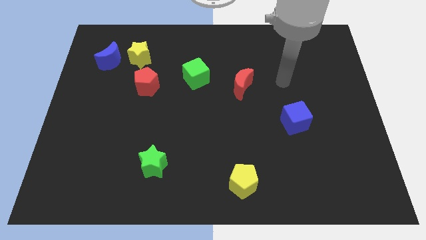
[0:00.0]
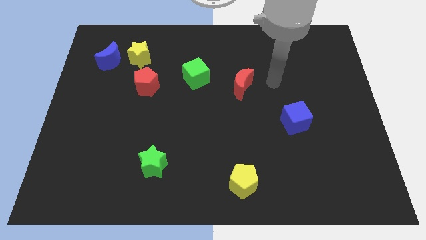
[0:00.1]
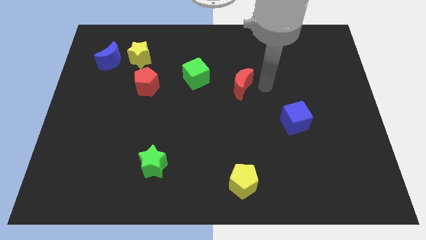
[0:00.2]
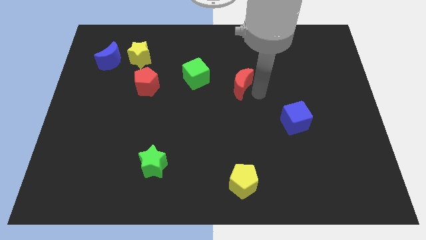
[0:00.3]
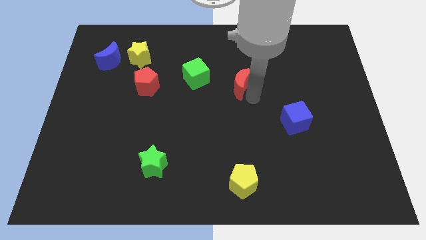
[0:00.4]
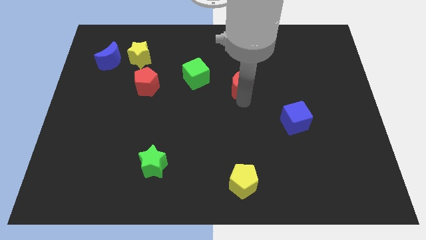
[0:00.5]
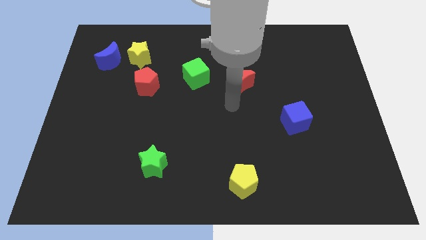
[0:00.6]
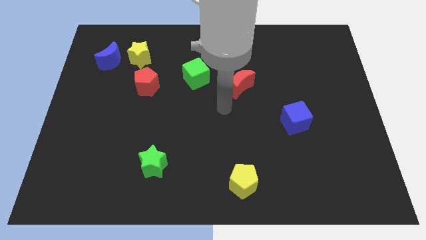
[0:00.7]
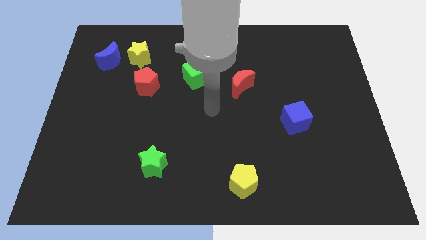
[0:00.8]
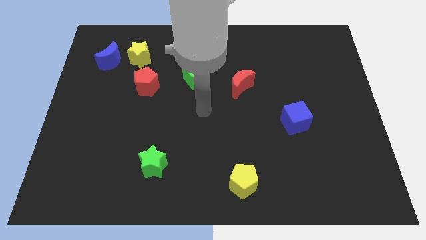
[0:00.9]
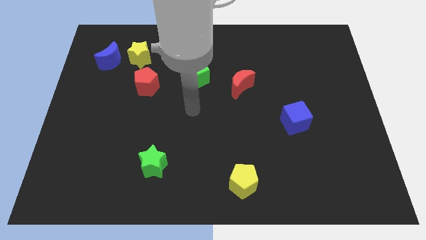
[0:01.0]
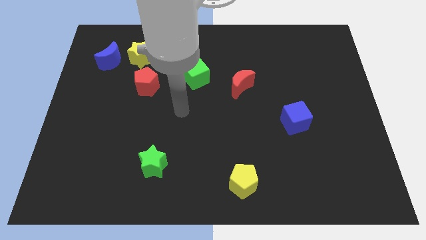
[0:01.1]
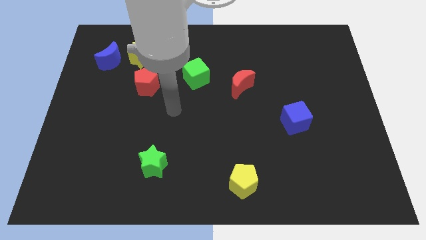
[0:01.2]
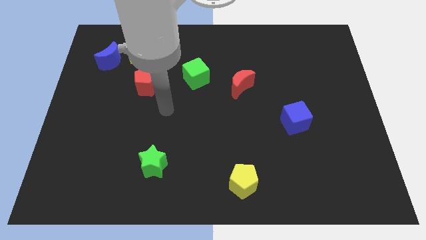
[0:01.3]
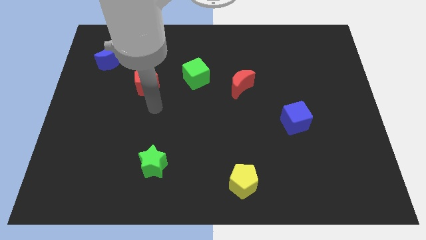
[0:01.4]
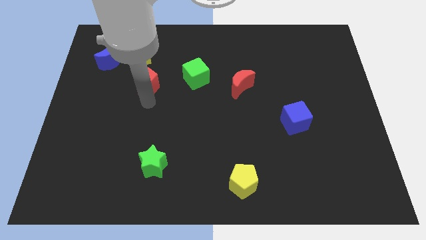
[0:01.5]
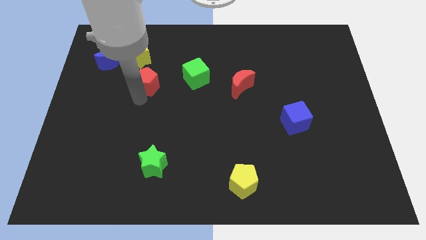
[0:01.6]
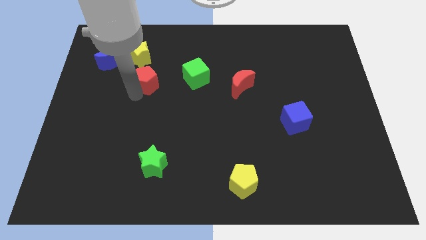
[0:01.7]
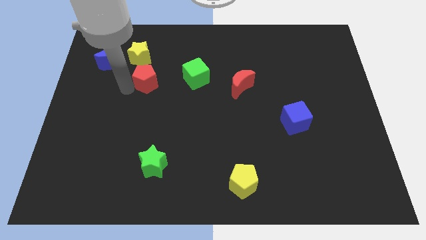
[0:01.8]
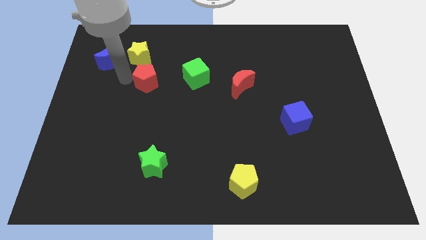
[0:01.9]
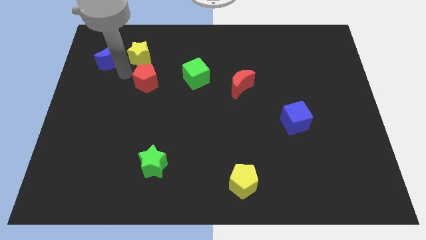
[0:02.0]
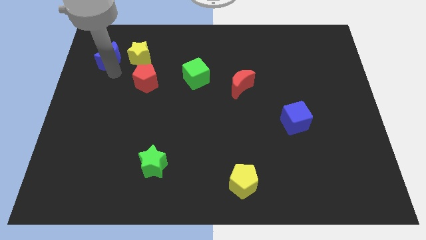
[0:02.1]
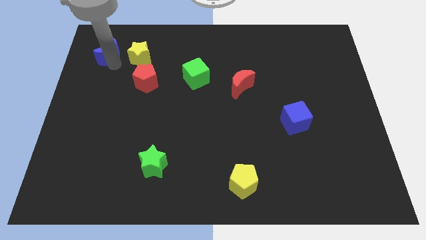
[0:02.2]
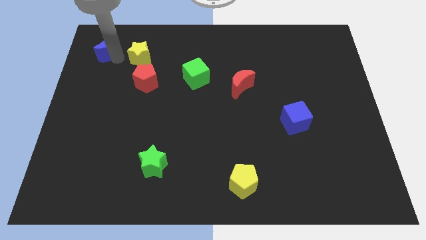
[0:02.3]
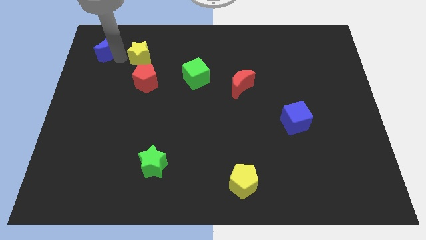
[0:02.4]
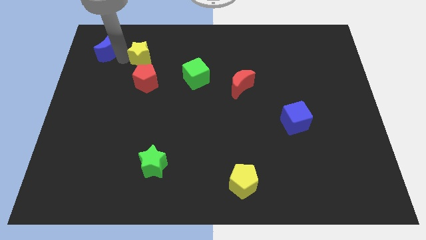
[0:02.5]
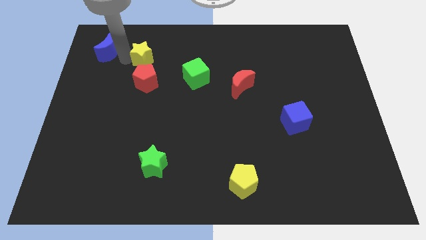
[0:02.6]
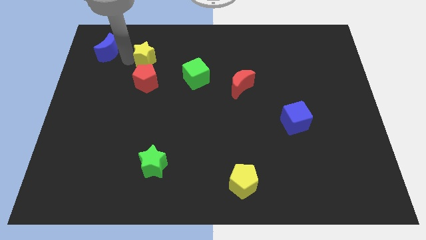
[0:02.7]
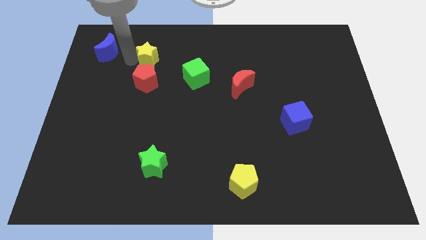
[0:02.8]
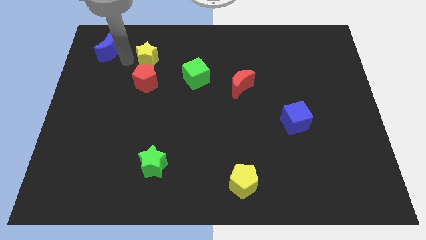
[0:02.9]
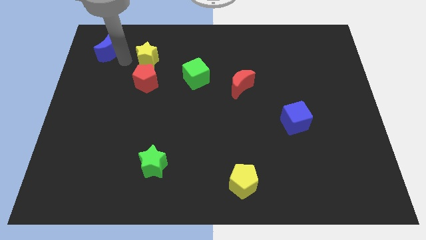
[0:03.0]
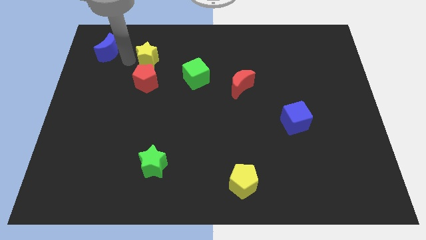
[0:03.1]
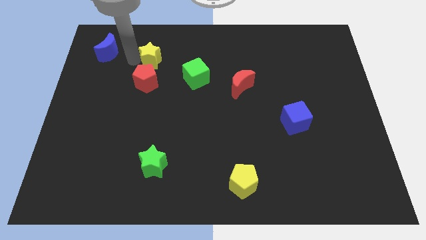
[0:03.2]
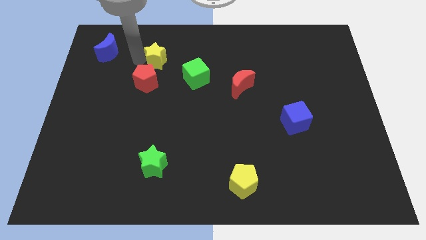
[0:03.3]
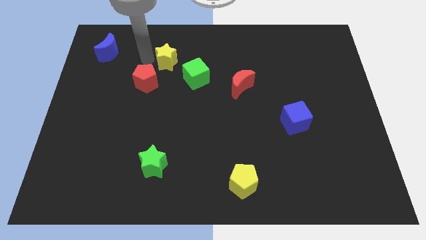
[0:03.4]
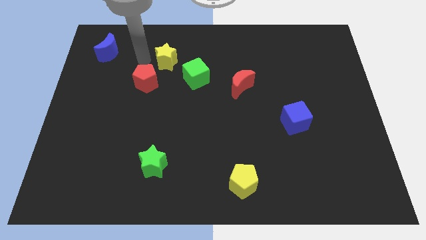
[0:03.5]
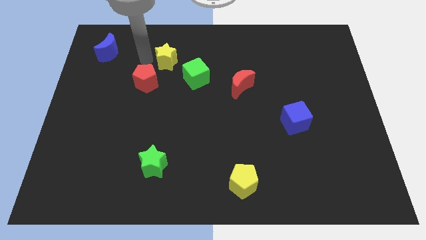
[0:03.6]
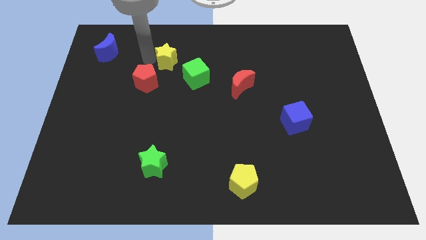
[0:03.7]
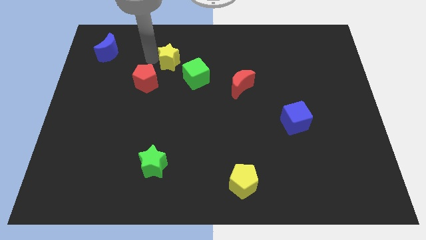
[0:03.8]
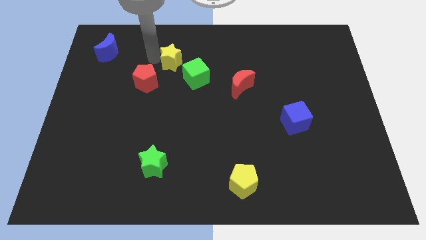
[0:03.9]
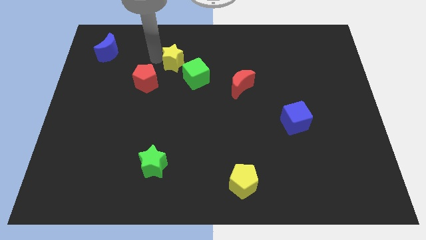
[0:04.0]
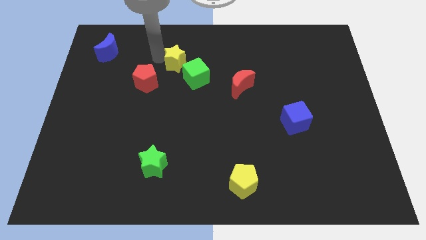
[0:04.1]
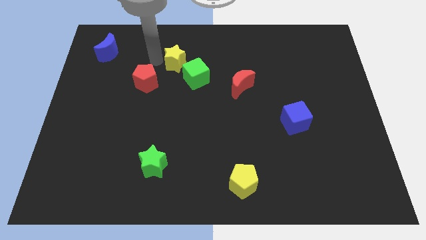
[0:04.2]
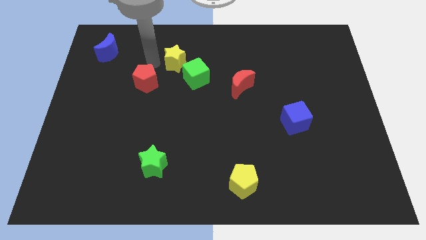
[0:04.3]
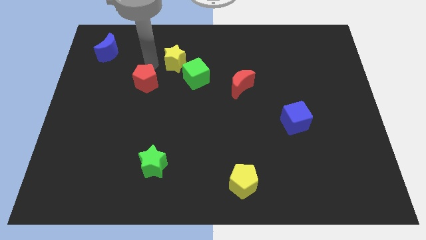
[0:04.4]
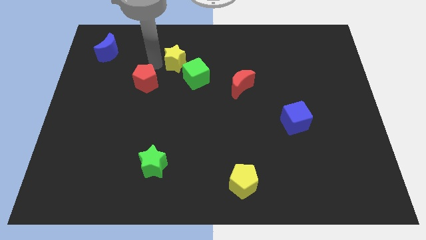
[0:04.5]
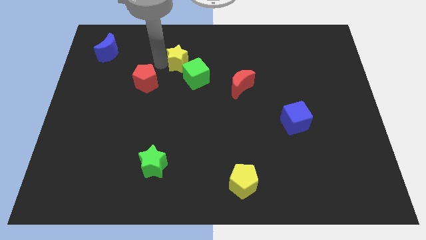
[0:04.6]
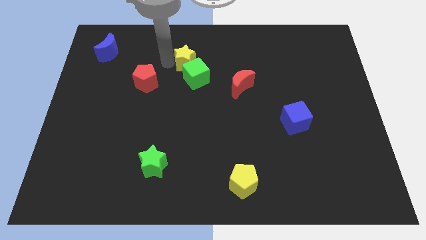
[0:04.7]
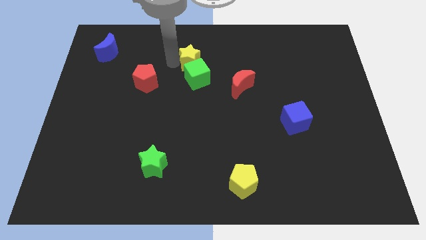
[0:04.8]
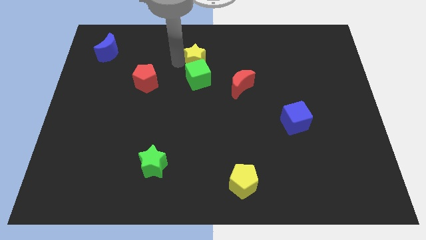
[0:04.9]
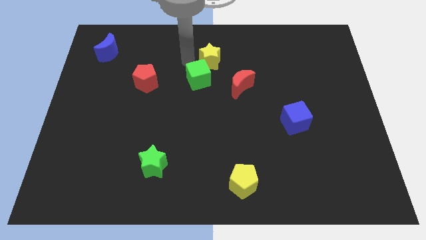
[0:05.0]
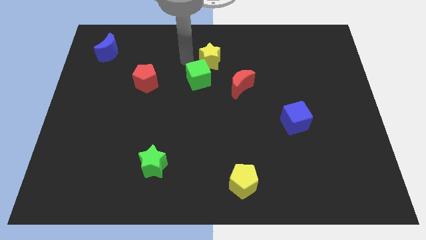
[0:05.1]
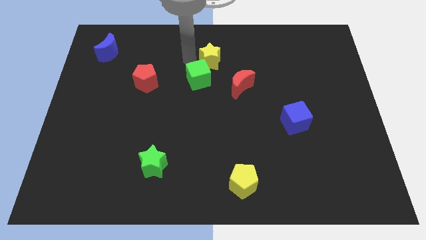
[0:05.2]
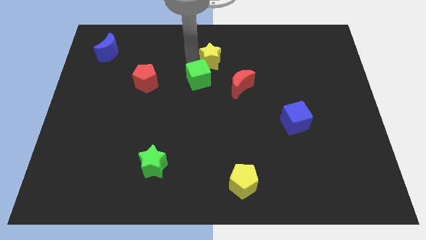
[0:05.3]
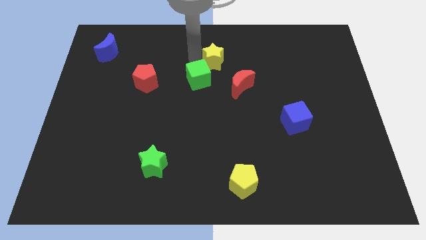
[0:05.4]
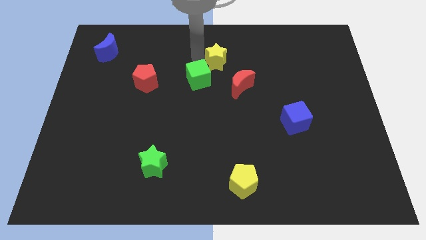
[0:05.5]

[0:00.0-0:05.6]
move the yellow star to the right

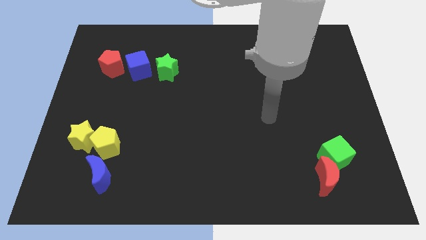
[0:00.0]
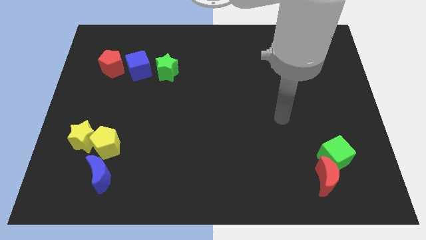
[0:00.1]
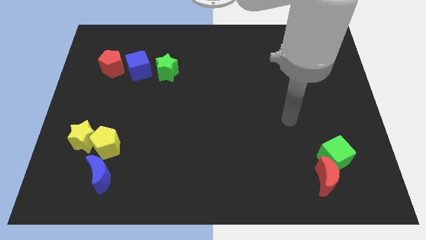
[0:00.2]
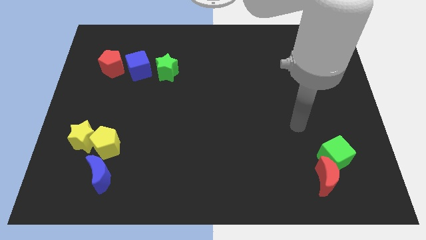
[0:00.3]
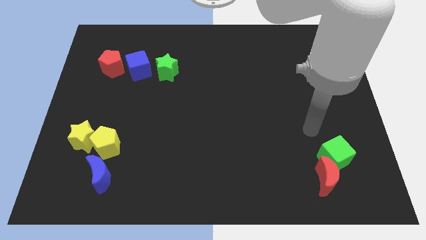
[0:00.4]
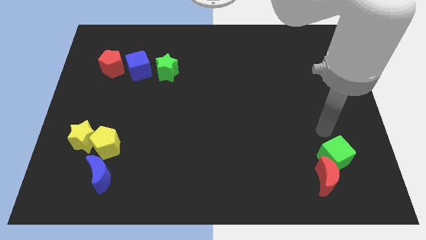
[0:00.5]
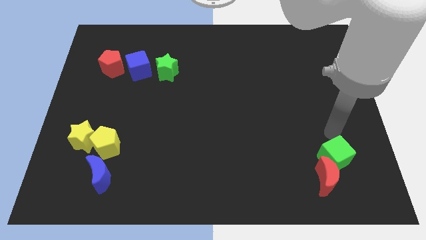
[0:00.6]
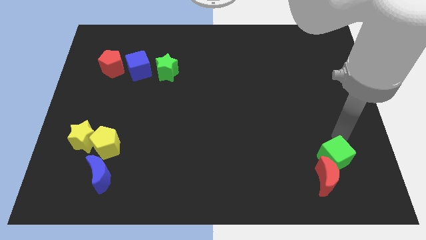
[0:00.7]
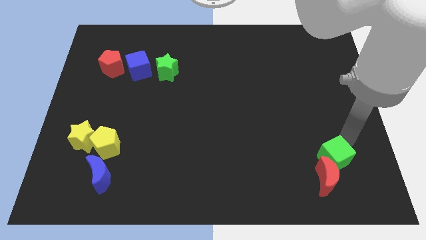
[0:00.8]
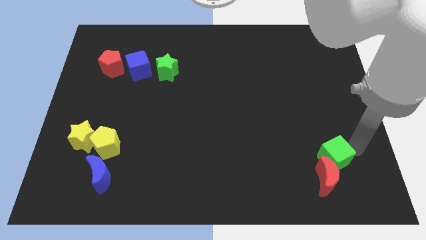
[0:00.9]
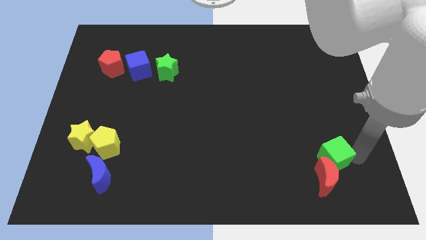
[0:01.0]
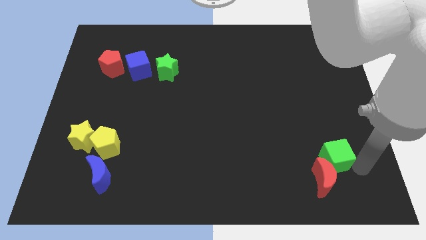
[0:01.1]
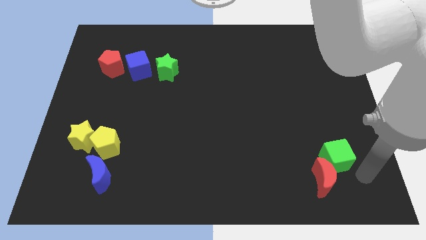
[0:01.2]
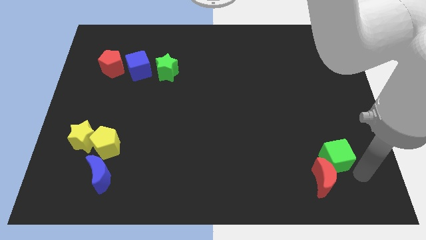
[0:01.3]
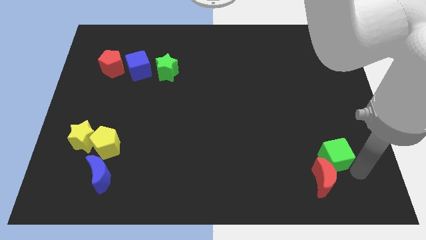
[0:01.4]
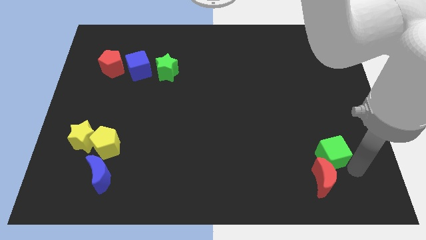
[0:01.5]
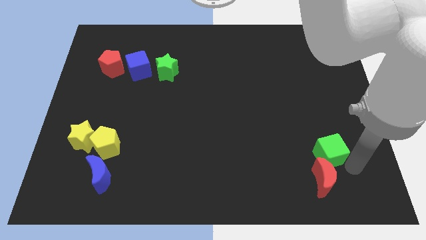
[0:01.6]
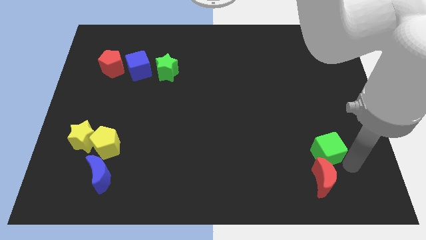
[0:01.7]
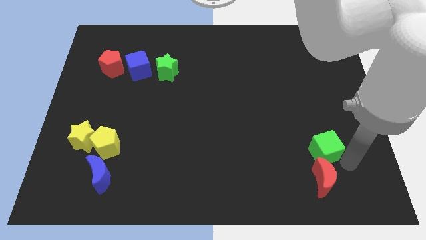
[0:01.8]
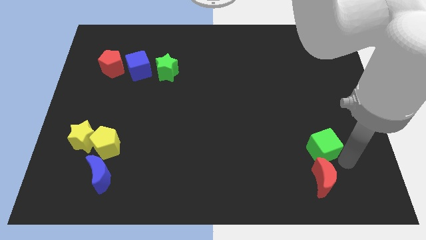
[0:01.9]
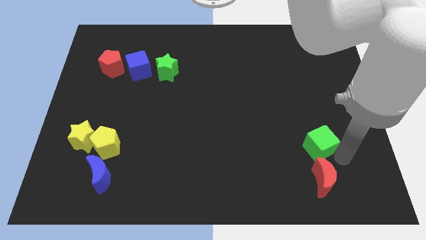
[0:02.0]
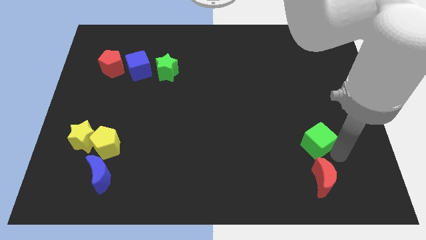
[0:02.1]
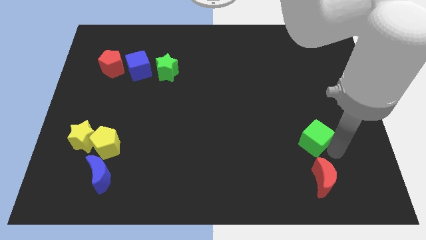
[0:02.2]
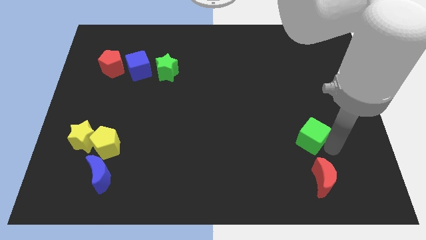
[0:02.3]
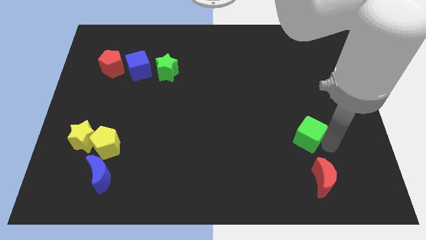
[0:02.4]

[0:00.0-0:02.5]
slide the green cube up and left a little
